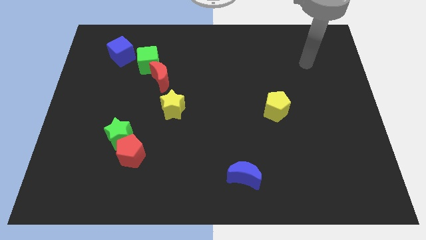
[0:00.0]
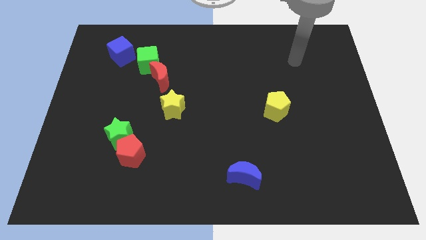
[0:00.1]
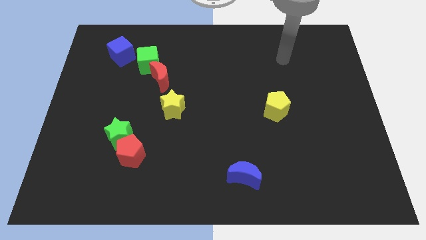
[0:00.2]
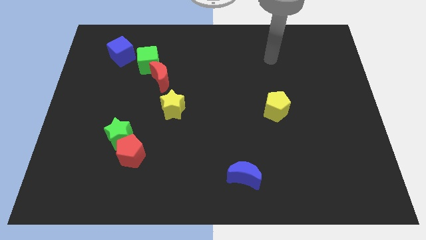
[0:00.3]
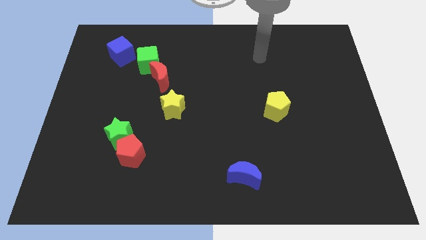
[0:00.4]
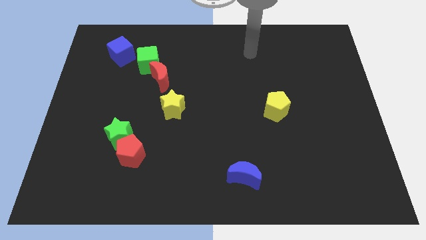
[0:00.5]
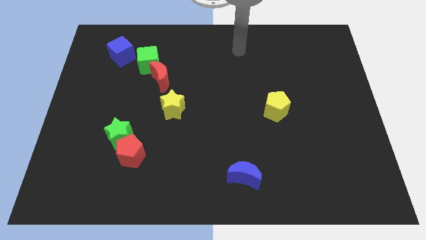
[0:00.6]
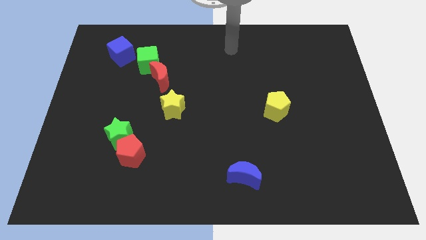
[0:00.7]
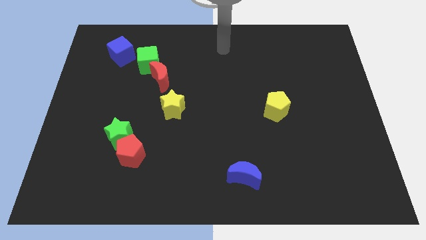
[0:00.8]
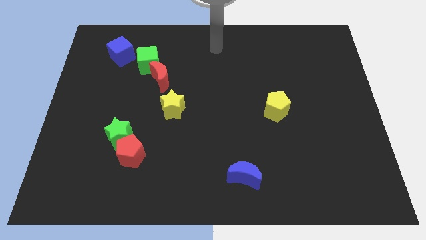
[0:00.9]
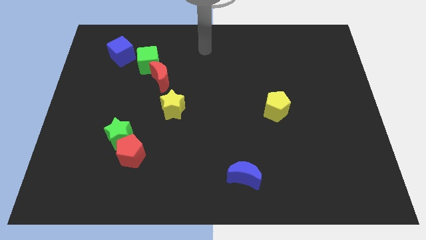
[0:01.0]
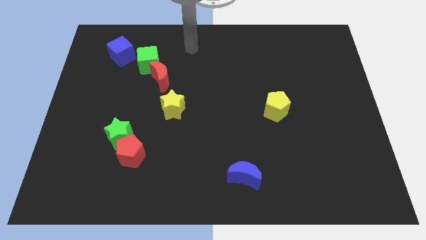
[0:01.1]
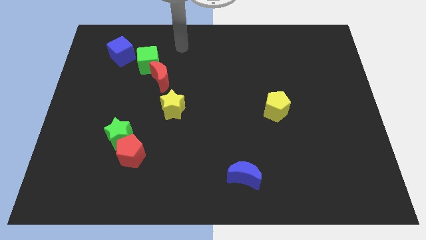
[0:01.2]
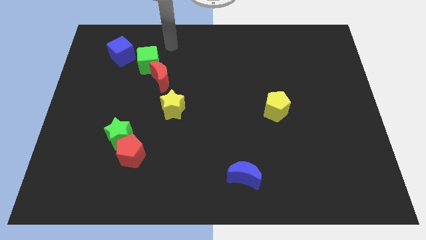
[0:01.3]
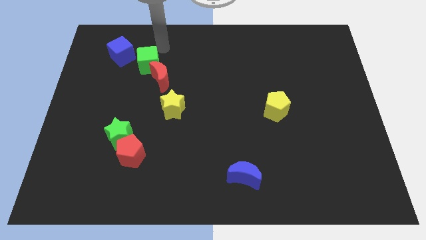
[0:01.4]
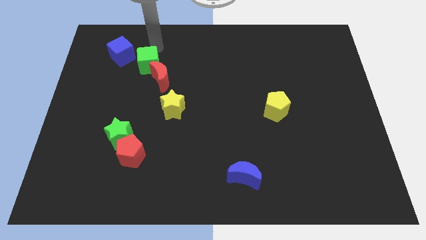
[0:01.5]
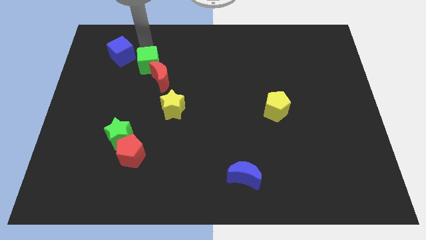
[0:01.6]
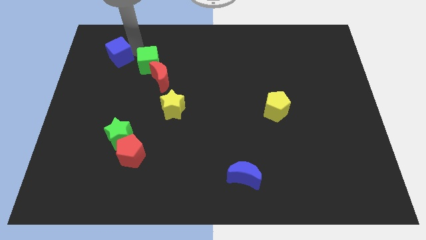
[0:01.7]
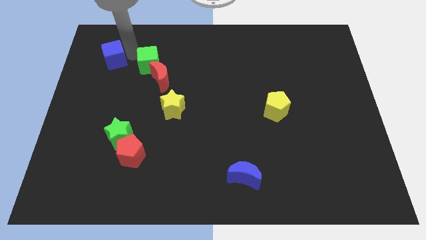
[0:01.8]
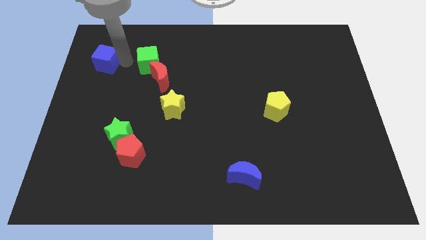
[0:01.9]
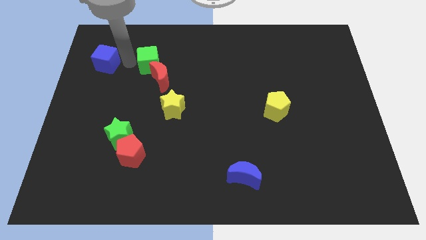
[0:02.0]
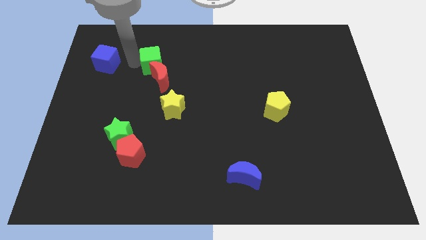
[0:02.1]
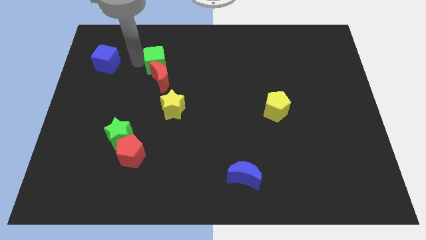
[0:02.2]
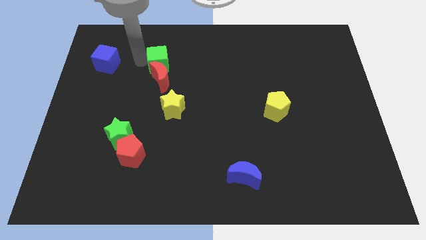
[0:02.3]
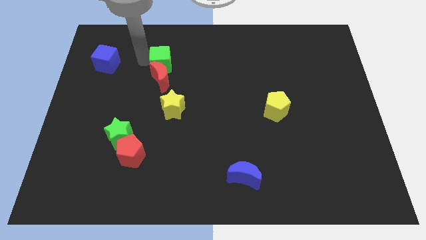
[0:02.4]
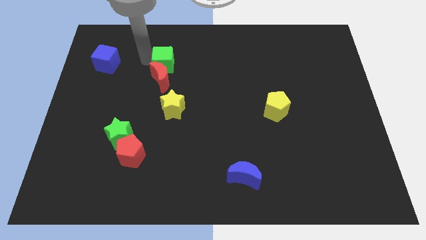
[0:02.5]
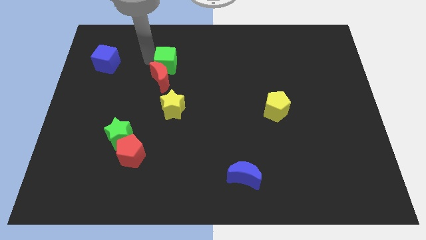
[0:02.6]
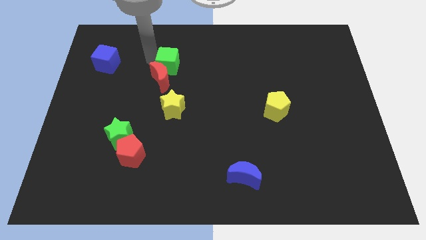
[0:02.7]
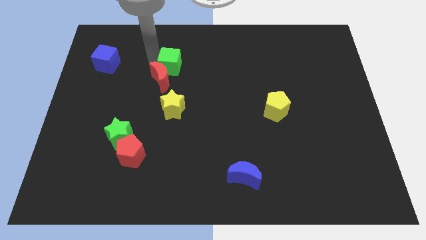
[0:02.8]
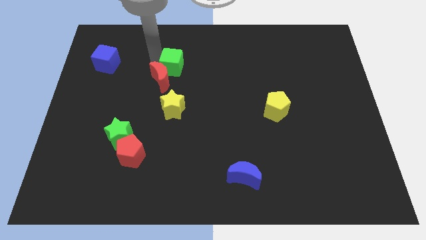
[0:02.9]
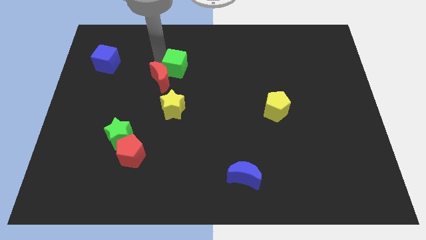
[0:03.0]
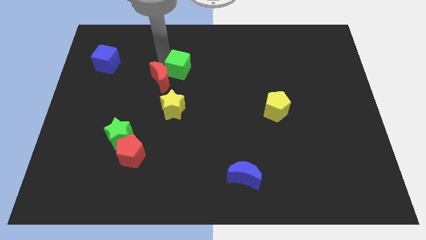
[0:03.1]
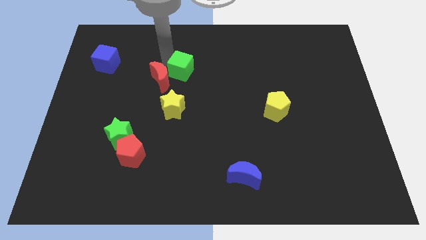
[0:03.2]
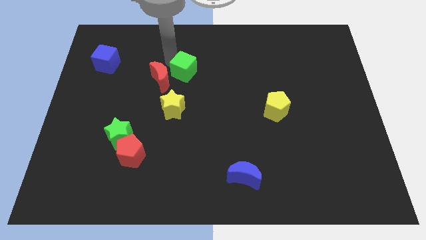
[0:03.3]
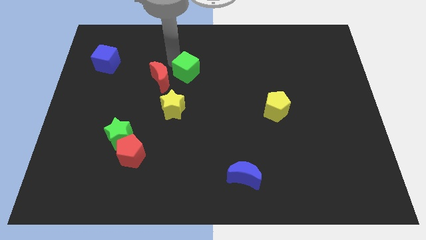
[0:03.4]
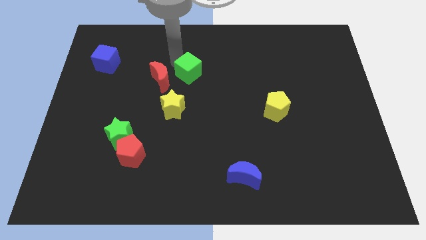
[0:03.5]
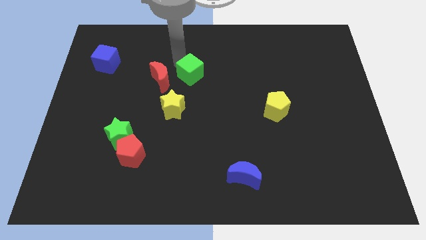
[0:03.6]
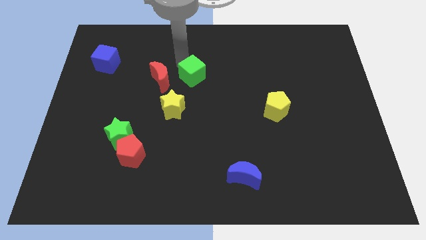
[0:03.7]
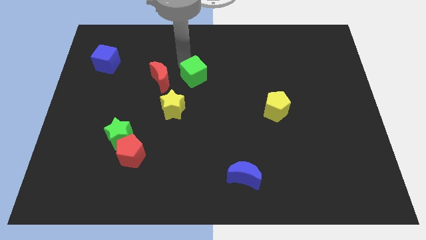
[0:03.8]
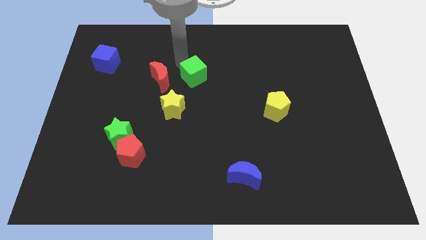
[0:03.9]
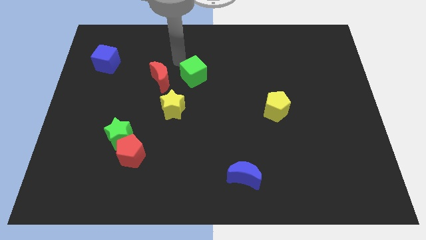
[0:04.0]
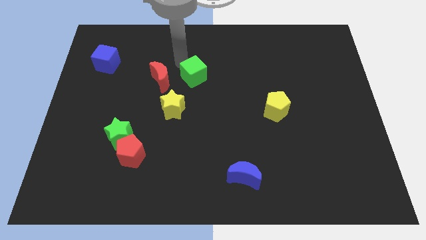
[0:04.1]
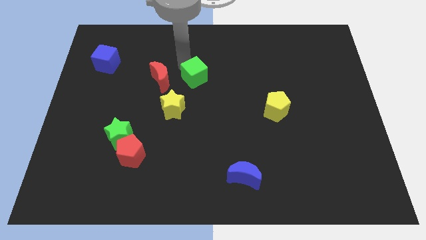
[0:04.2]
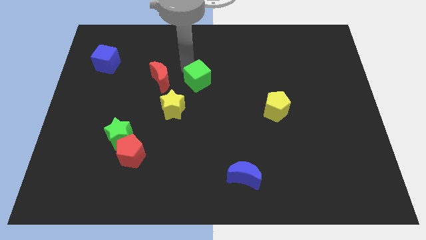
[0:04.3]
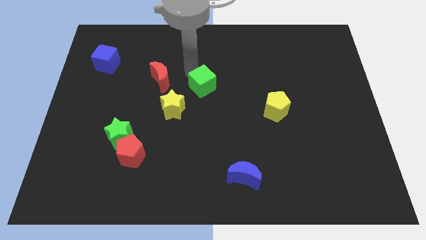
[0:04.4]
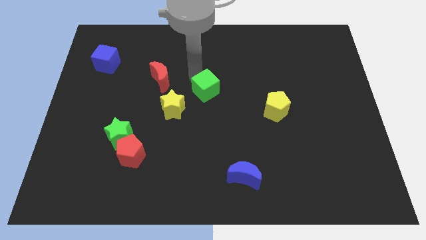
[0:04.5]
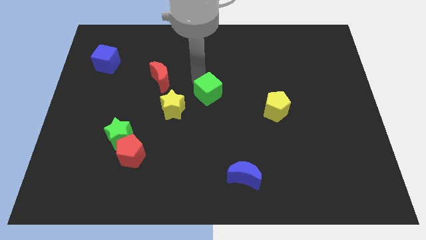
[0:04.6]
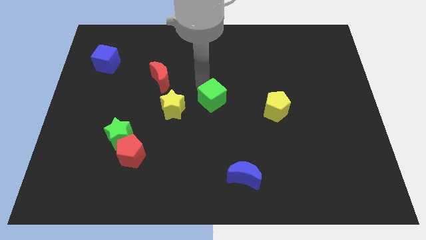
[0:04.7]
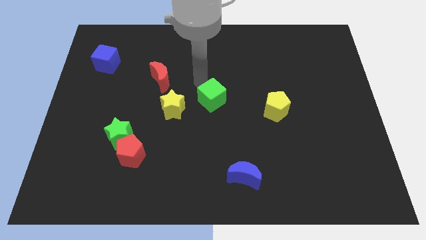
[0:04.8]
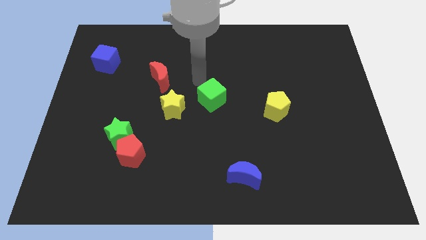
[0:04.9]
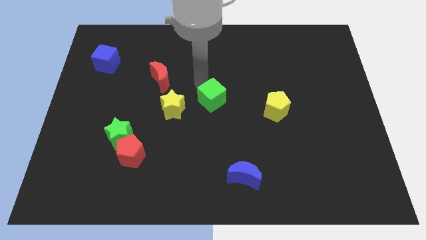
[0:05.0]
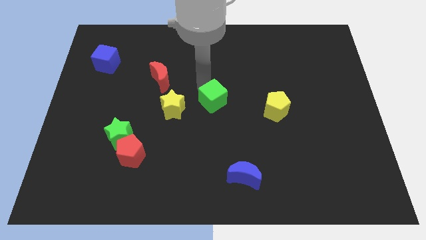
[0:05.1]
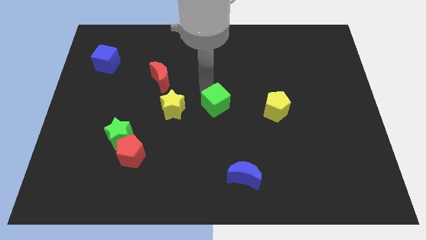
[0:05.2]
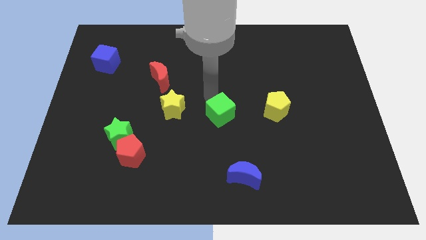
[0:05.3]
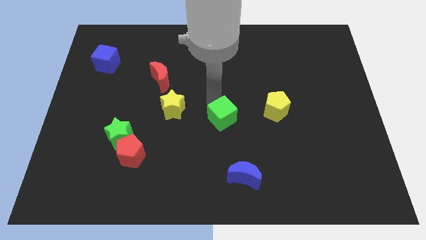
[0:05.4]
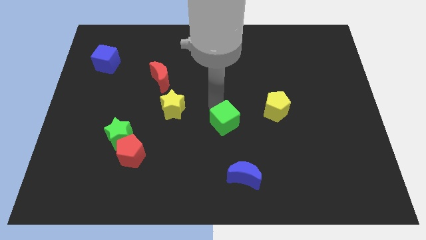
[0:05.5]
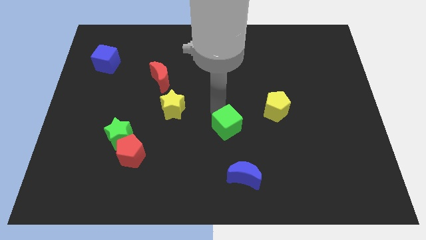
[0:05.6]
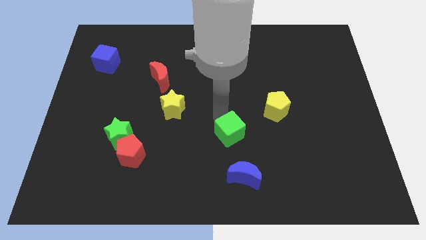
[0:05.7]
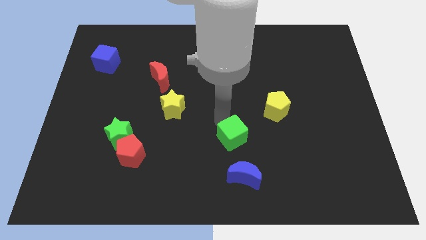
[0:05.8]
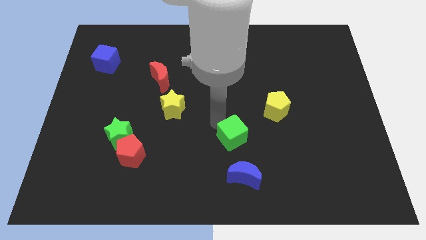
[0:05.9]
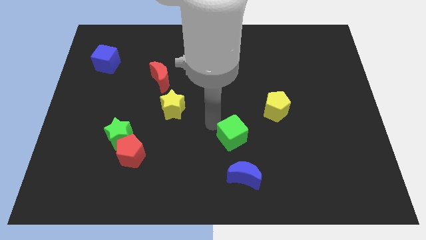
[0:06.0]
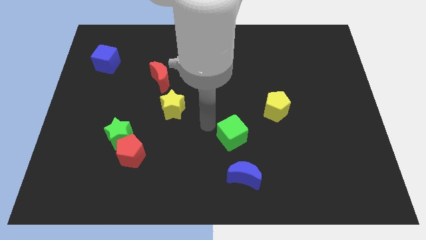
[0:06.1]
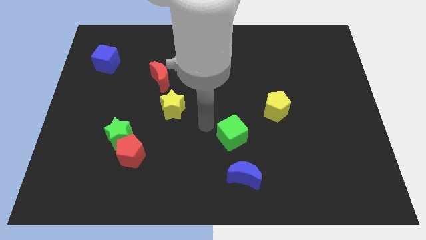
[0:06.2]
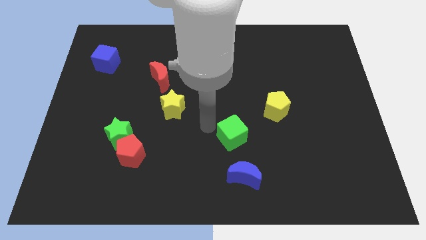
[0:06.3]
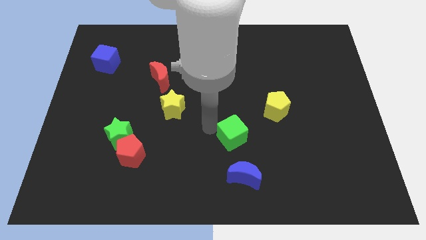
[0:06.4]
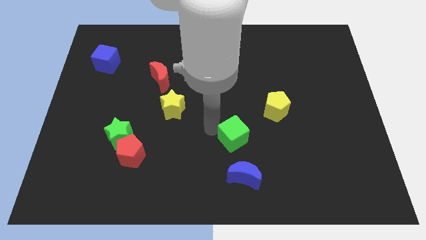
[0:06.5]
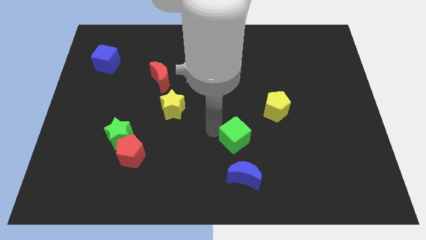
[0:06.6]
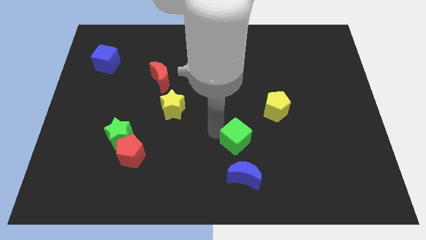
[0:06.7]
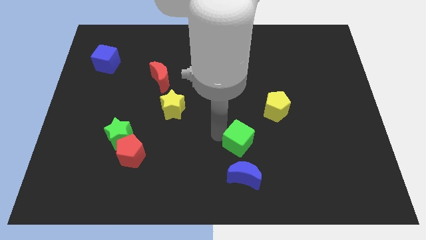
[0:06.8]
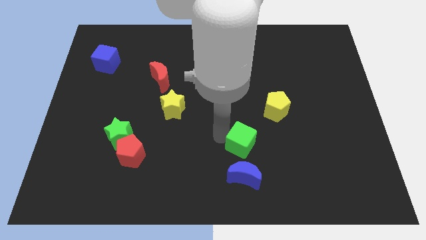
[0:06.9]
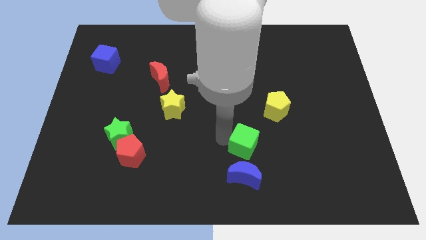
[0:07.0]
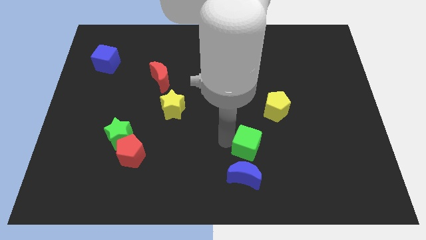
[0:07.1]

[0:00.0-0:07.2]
slide the green cube to the top right side of the blue moon
